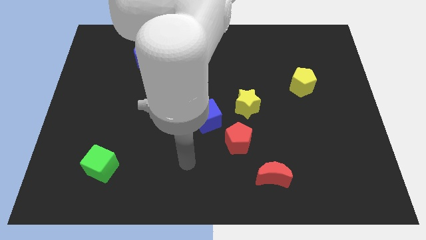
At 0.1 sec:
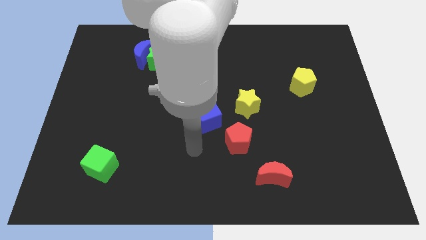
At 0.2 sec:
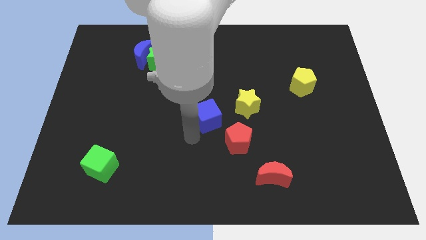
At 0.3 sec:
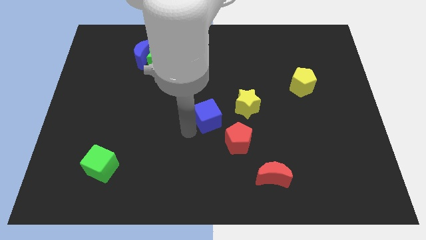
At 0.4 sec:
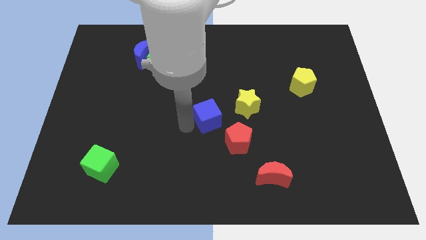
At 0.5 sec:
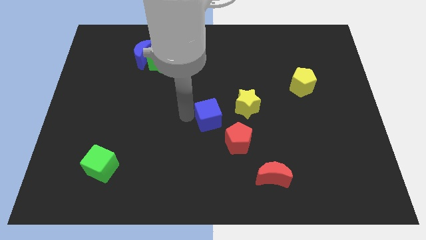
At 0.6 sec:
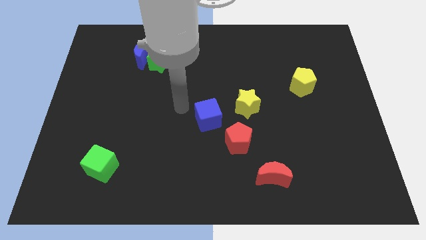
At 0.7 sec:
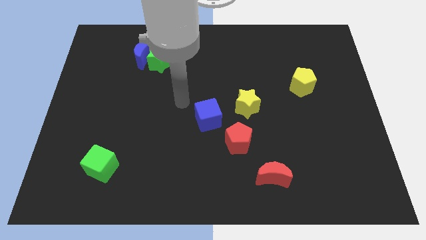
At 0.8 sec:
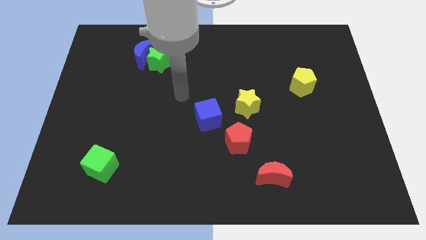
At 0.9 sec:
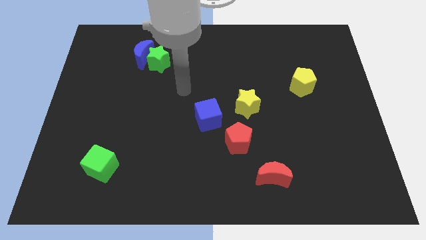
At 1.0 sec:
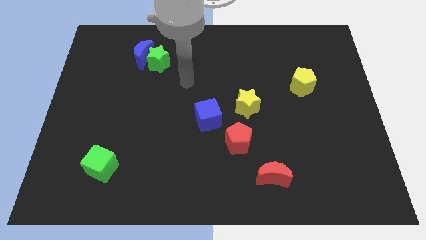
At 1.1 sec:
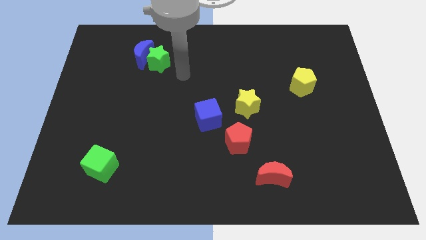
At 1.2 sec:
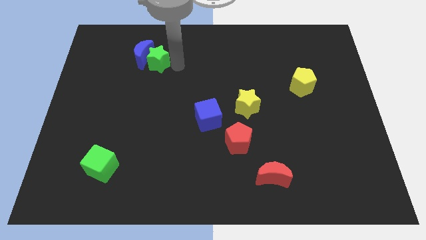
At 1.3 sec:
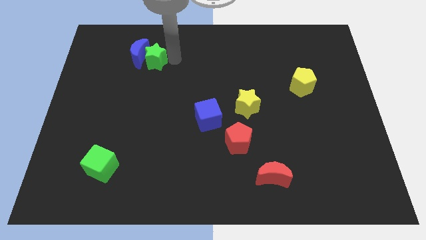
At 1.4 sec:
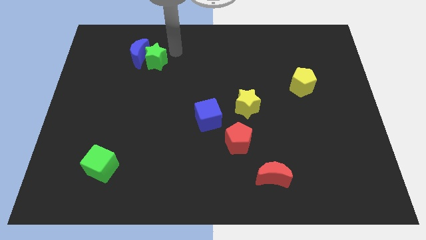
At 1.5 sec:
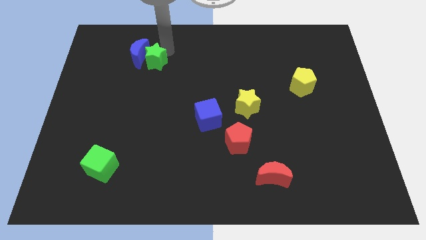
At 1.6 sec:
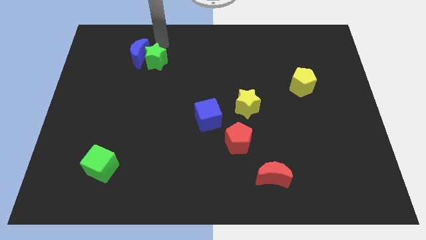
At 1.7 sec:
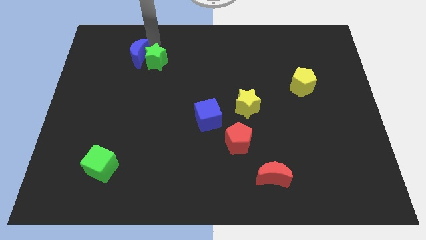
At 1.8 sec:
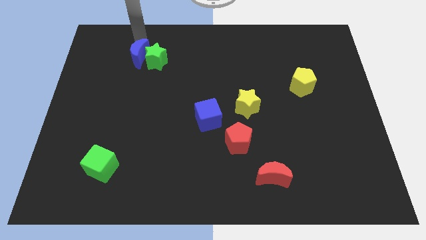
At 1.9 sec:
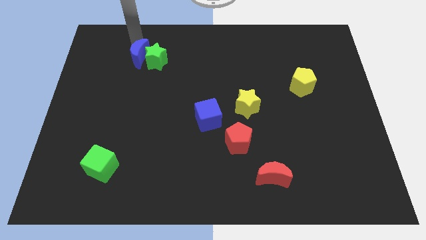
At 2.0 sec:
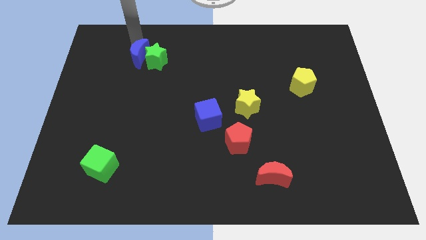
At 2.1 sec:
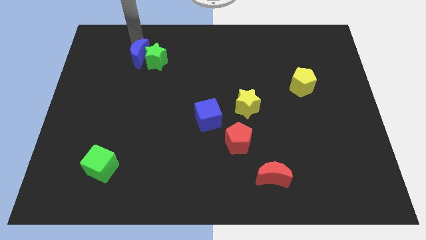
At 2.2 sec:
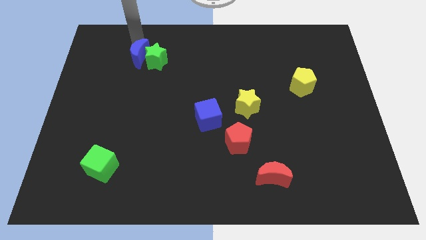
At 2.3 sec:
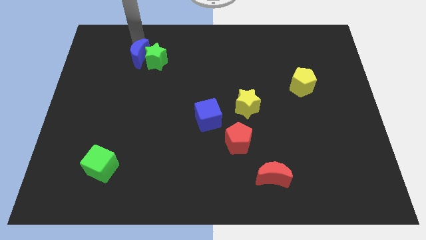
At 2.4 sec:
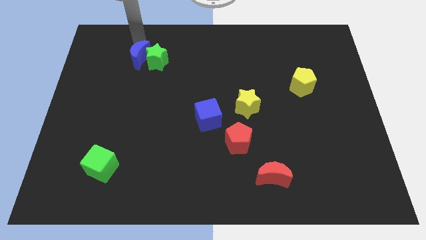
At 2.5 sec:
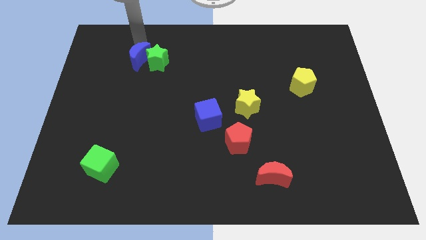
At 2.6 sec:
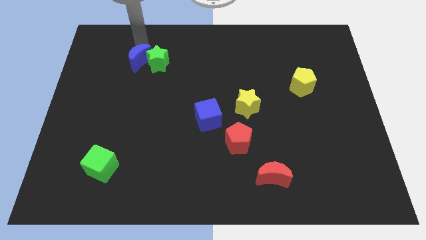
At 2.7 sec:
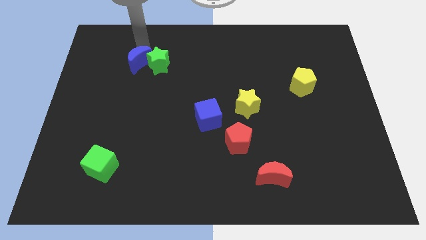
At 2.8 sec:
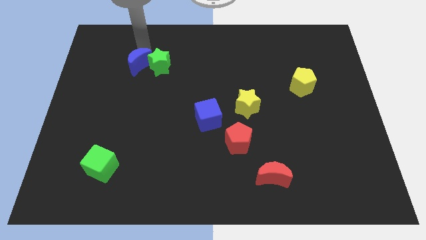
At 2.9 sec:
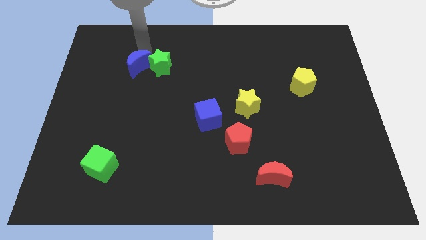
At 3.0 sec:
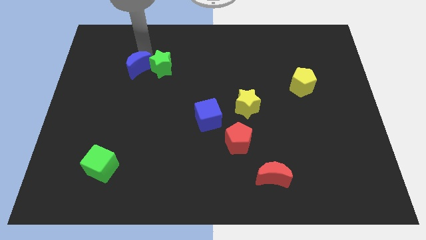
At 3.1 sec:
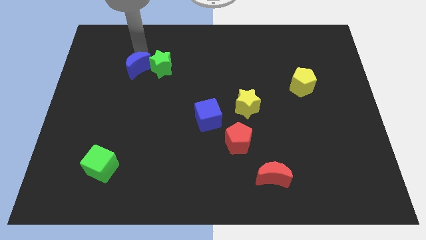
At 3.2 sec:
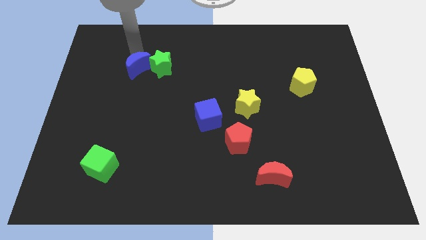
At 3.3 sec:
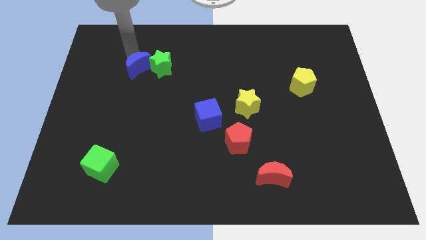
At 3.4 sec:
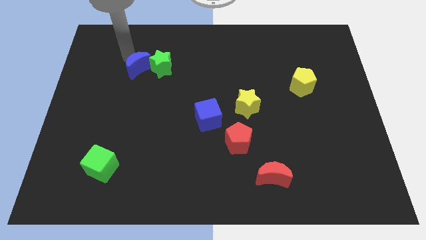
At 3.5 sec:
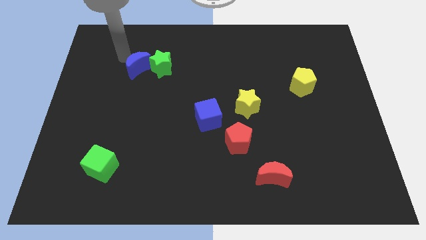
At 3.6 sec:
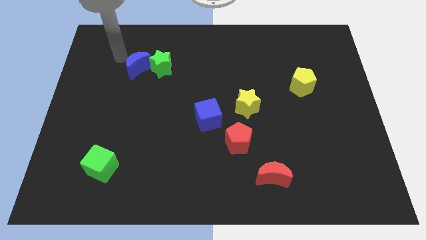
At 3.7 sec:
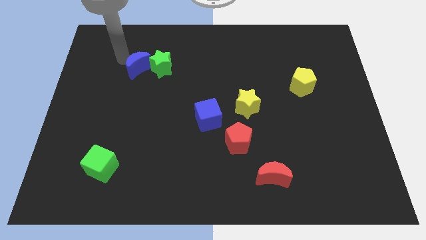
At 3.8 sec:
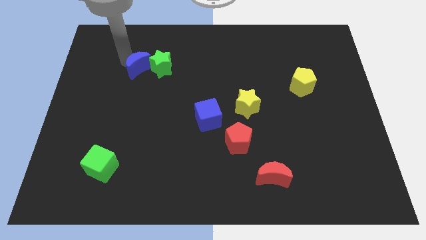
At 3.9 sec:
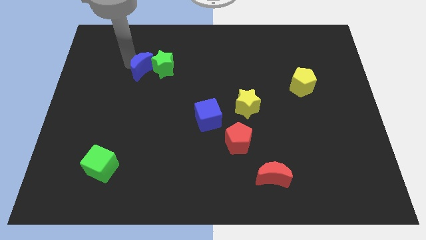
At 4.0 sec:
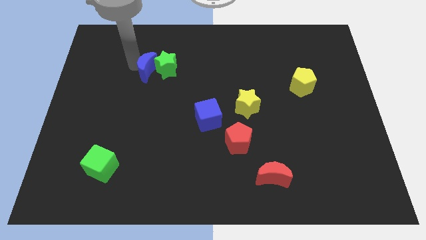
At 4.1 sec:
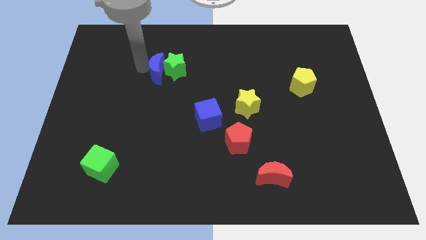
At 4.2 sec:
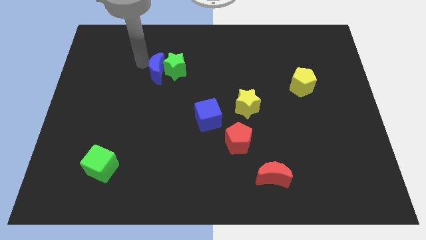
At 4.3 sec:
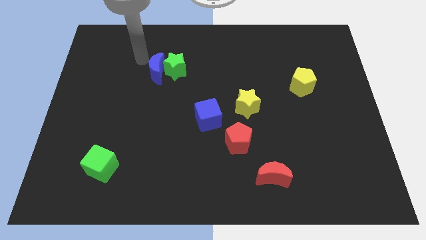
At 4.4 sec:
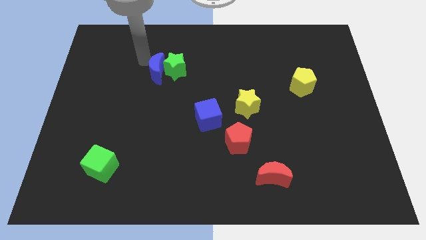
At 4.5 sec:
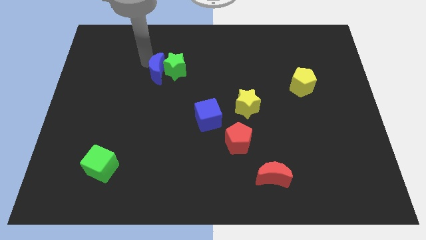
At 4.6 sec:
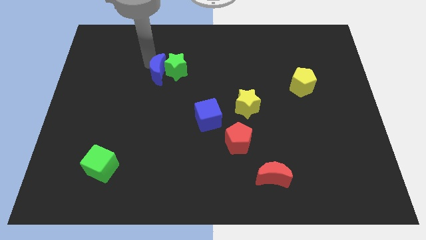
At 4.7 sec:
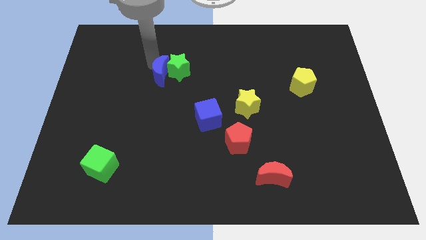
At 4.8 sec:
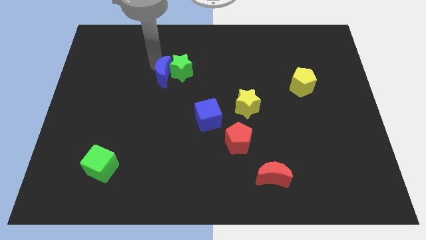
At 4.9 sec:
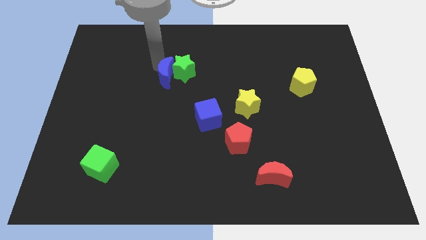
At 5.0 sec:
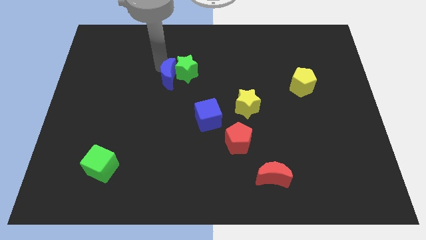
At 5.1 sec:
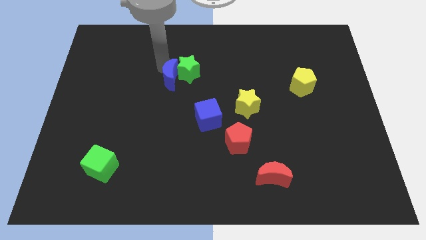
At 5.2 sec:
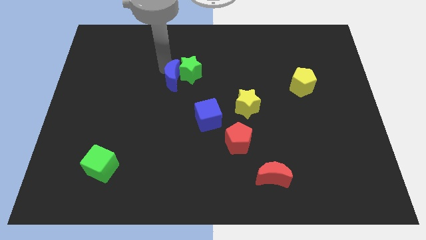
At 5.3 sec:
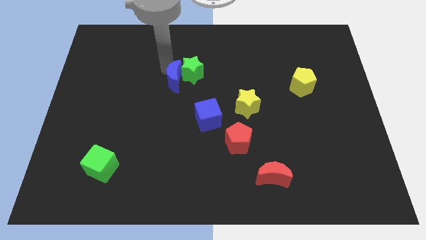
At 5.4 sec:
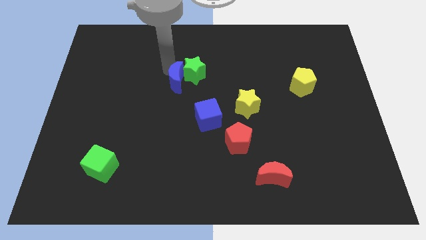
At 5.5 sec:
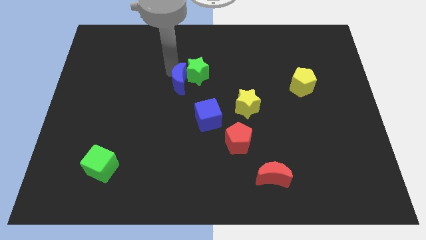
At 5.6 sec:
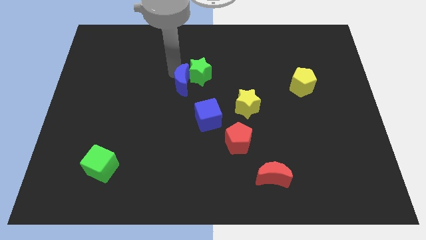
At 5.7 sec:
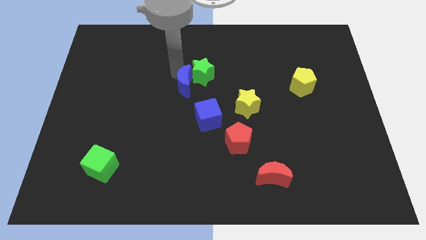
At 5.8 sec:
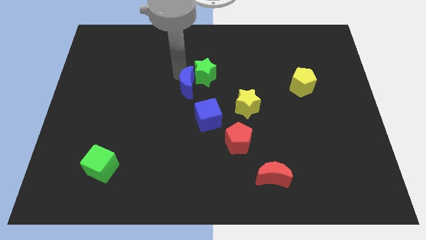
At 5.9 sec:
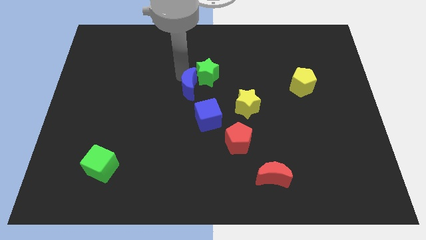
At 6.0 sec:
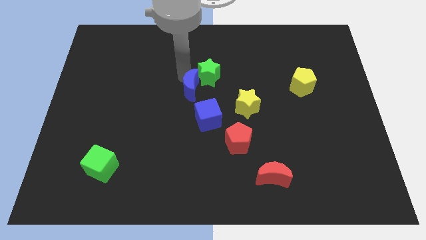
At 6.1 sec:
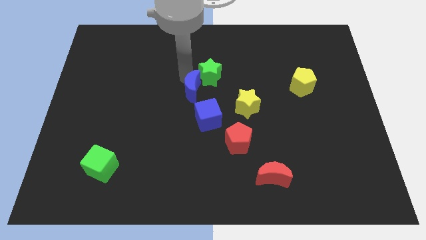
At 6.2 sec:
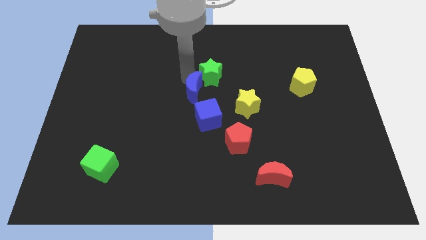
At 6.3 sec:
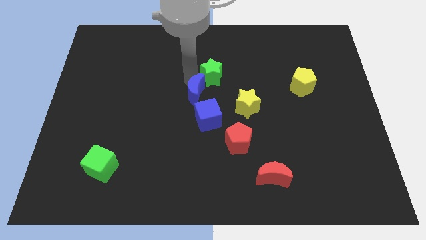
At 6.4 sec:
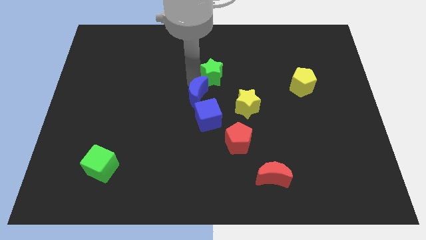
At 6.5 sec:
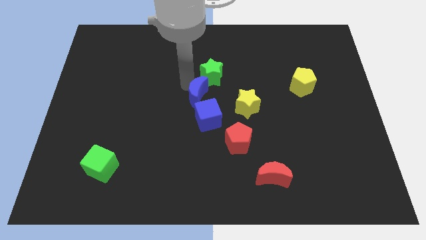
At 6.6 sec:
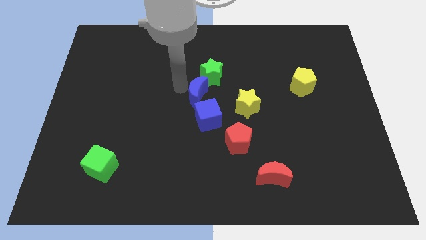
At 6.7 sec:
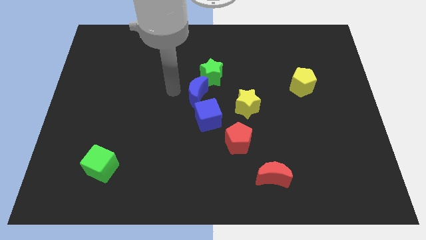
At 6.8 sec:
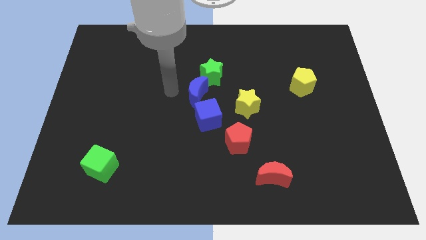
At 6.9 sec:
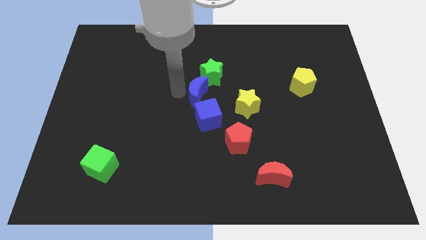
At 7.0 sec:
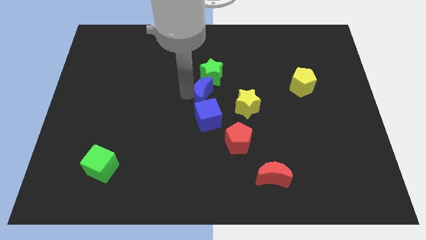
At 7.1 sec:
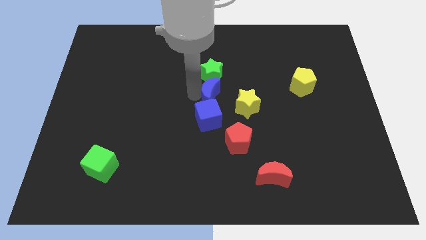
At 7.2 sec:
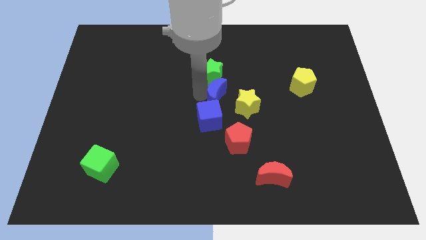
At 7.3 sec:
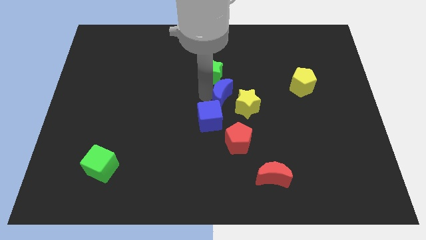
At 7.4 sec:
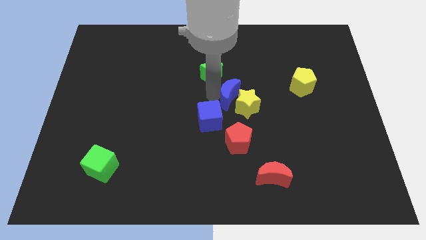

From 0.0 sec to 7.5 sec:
move the blue moon towards the yellow star
